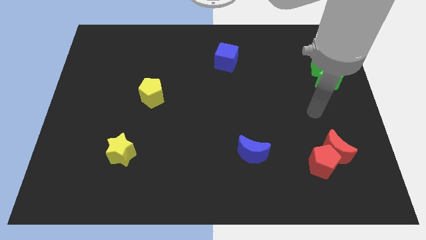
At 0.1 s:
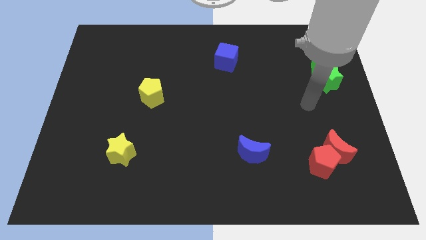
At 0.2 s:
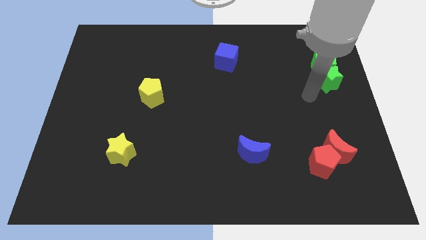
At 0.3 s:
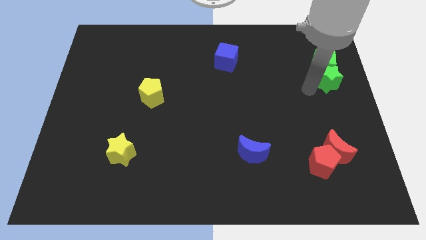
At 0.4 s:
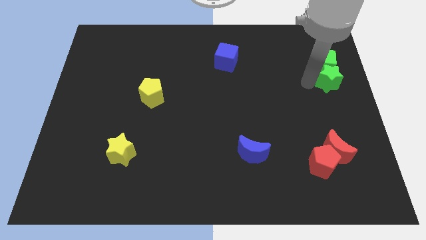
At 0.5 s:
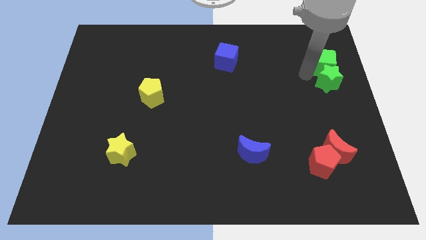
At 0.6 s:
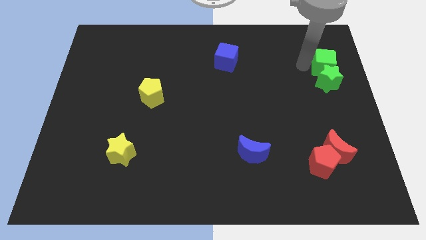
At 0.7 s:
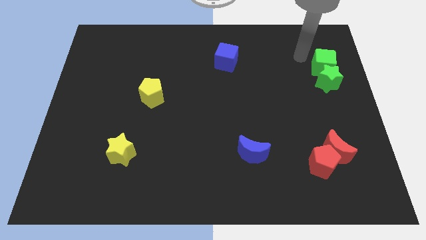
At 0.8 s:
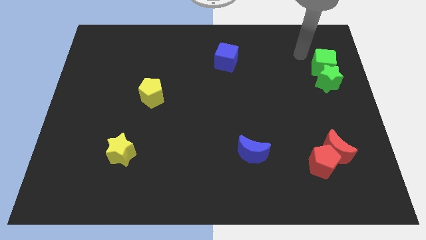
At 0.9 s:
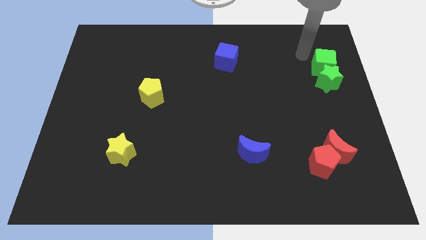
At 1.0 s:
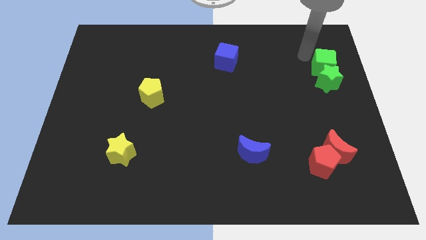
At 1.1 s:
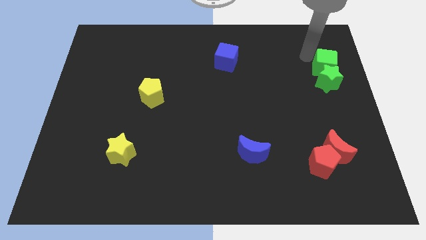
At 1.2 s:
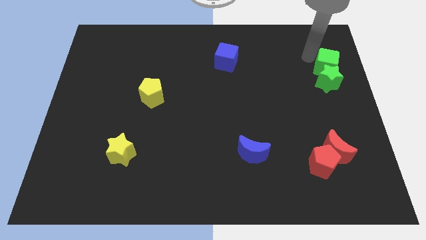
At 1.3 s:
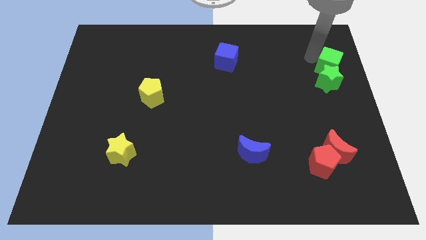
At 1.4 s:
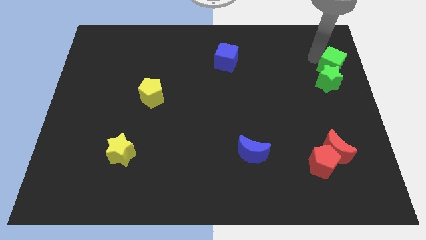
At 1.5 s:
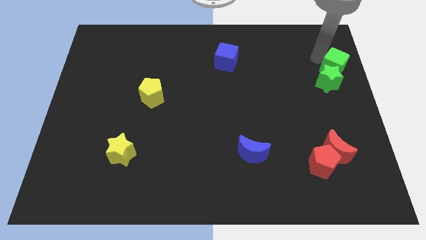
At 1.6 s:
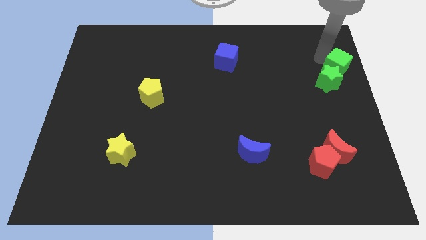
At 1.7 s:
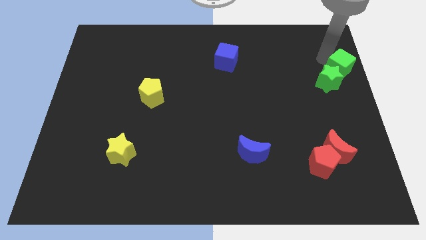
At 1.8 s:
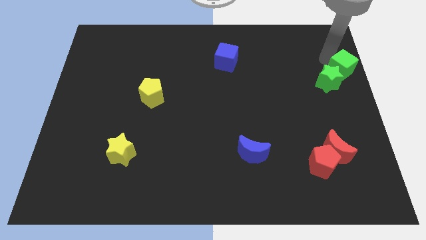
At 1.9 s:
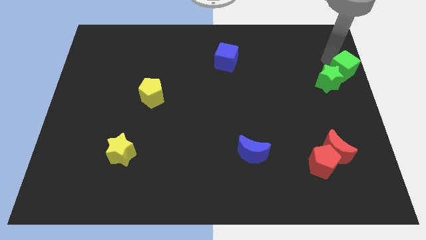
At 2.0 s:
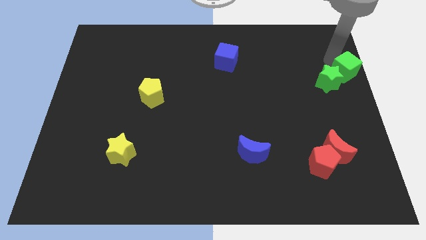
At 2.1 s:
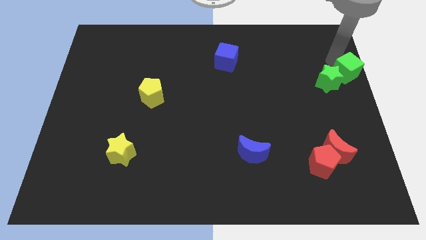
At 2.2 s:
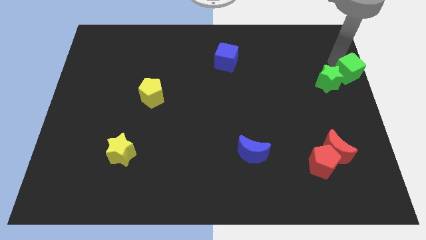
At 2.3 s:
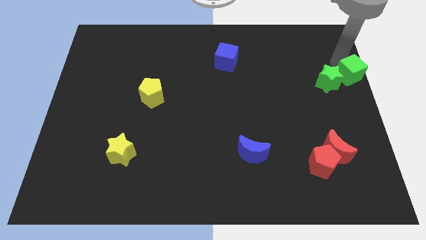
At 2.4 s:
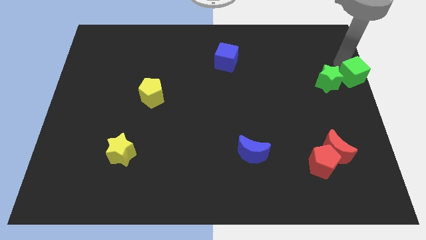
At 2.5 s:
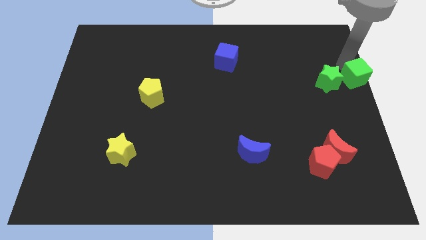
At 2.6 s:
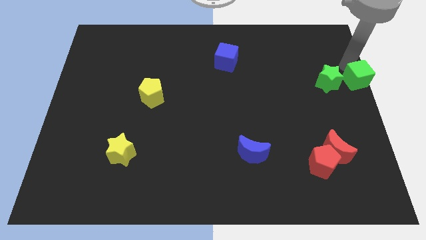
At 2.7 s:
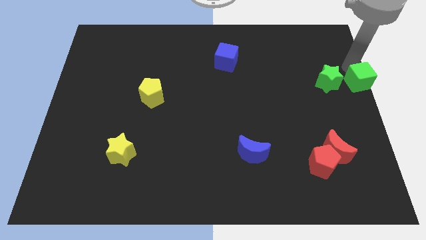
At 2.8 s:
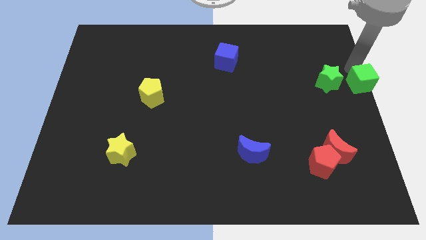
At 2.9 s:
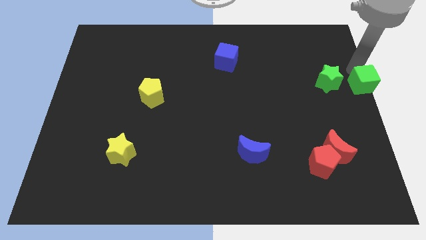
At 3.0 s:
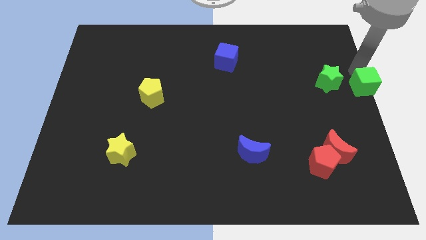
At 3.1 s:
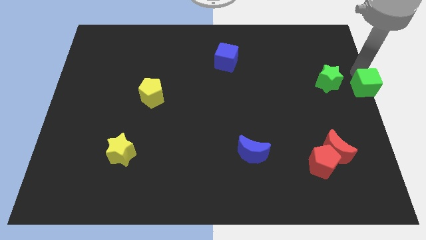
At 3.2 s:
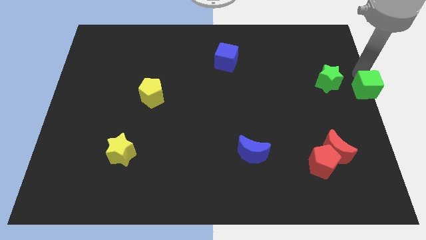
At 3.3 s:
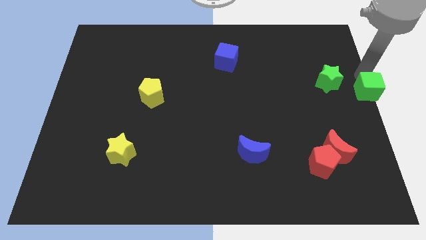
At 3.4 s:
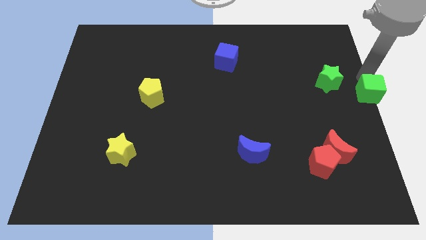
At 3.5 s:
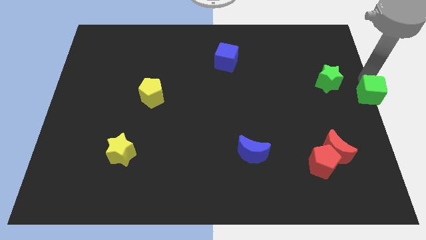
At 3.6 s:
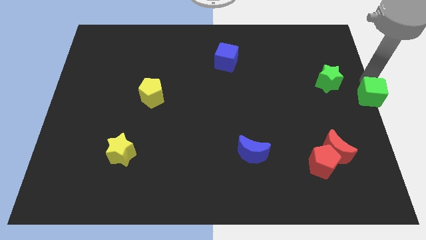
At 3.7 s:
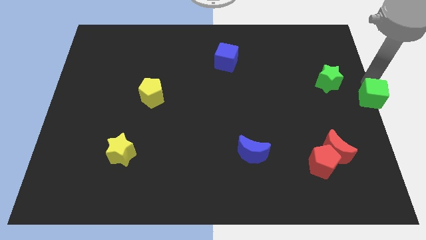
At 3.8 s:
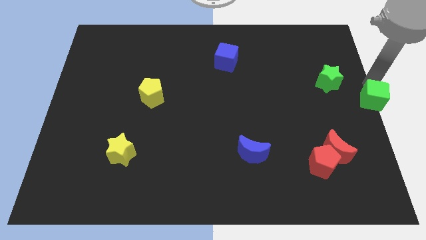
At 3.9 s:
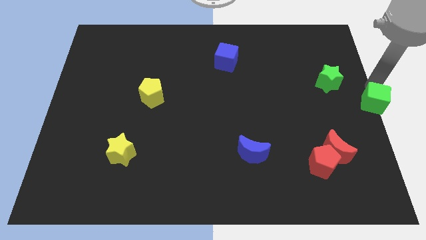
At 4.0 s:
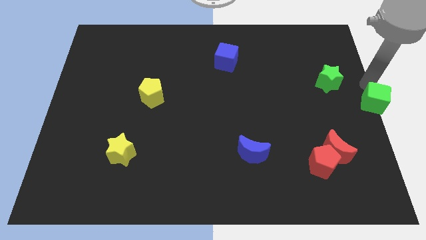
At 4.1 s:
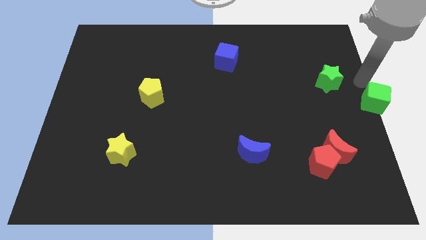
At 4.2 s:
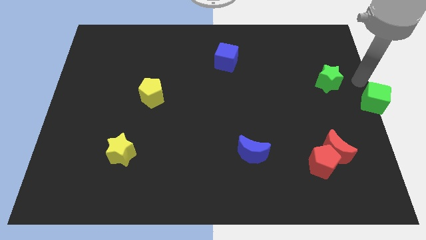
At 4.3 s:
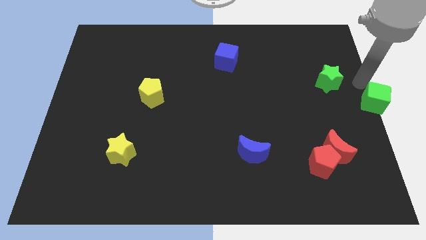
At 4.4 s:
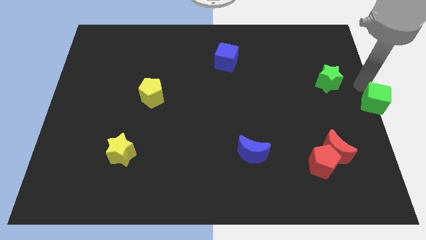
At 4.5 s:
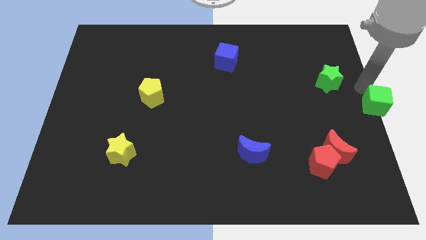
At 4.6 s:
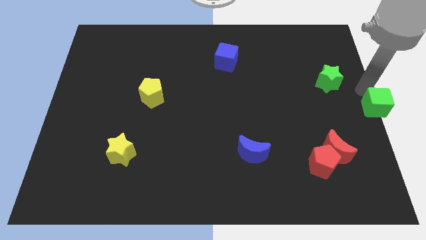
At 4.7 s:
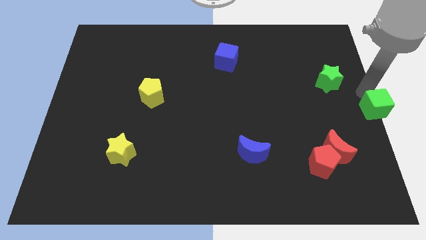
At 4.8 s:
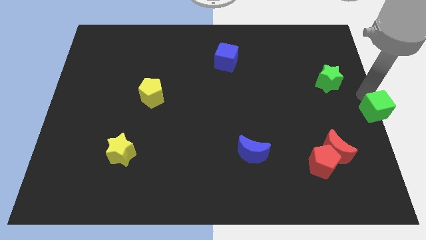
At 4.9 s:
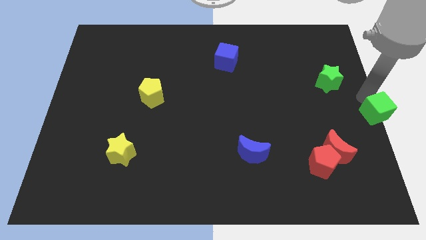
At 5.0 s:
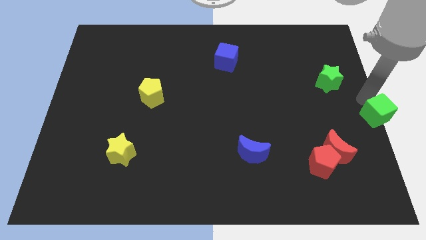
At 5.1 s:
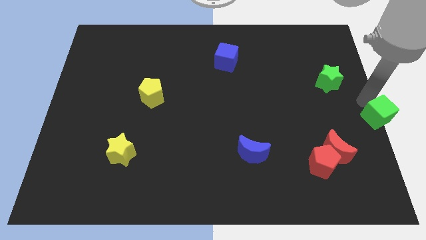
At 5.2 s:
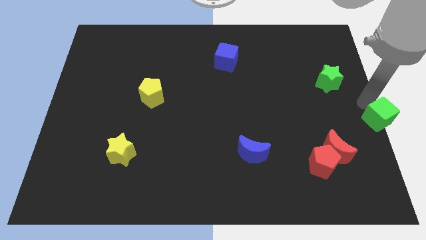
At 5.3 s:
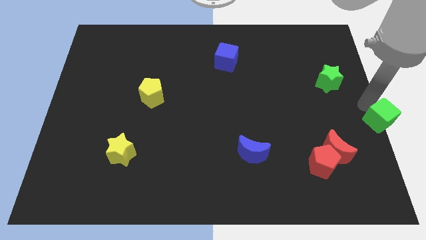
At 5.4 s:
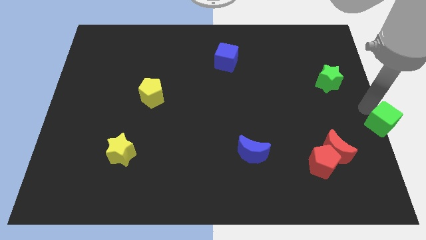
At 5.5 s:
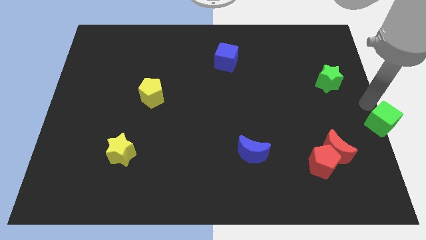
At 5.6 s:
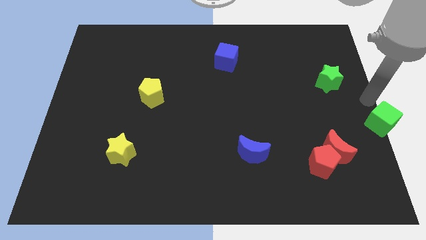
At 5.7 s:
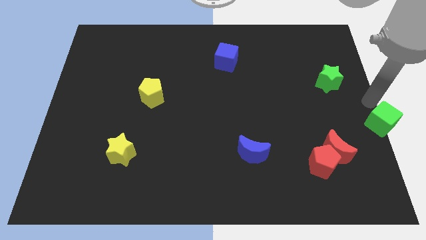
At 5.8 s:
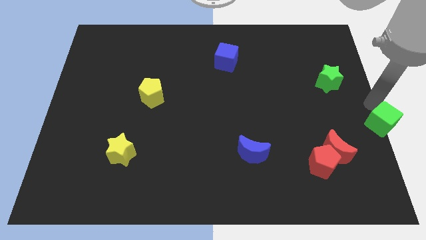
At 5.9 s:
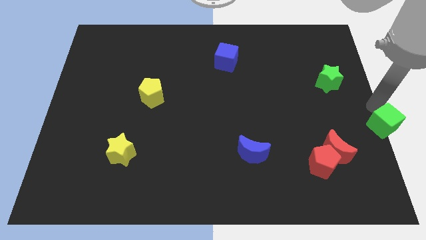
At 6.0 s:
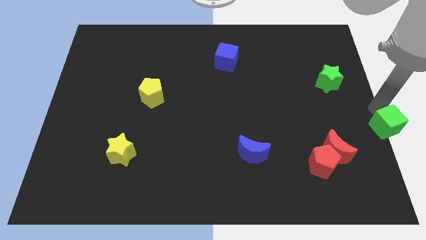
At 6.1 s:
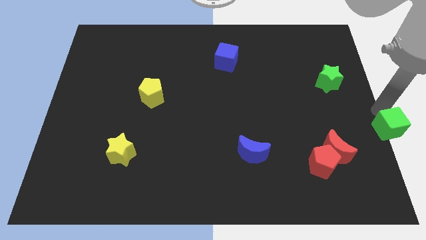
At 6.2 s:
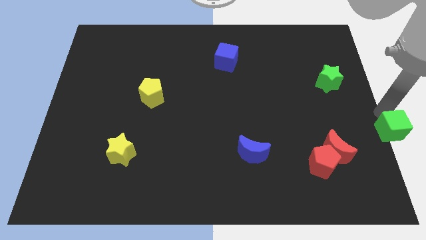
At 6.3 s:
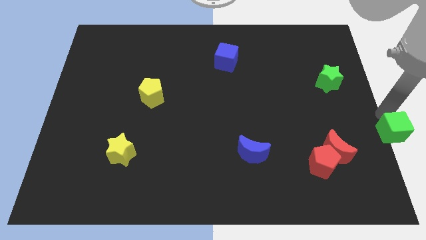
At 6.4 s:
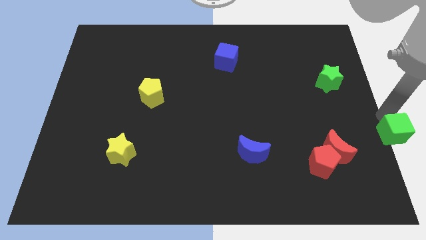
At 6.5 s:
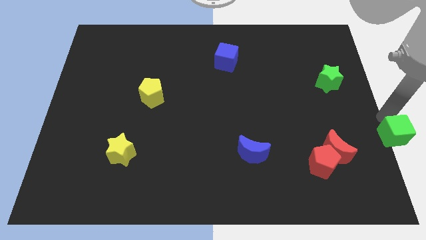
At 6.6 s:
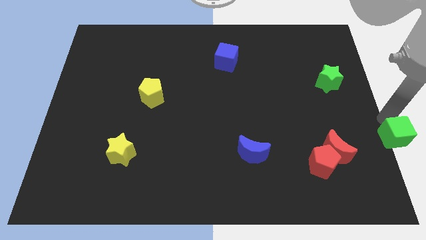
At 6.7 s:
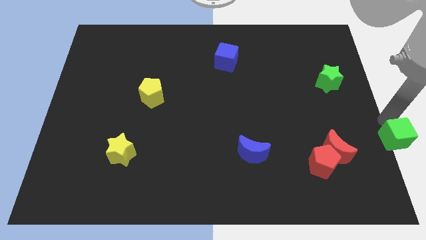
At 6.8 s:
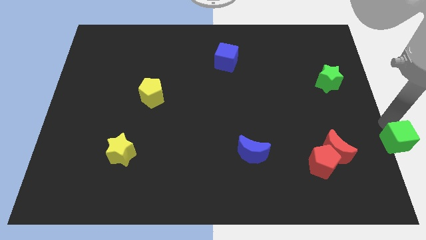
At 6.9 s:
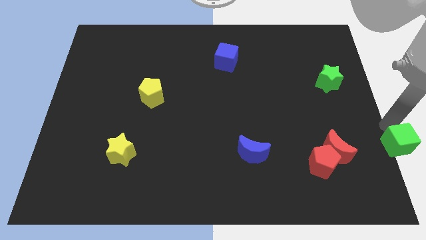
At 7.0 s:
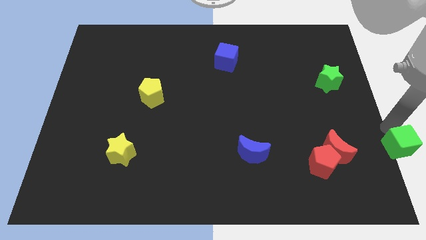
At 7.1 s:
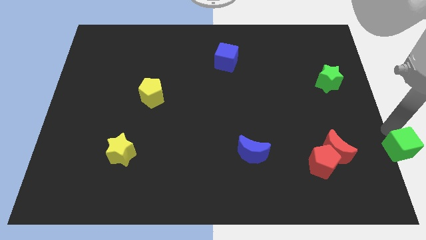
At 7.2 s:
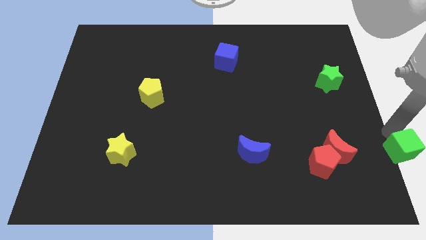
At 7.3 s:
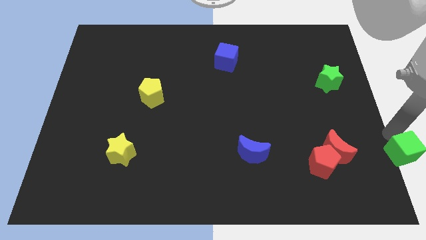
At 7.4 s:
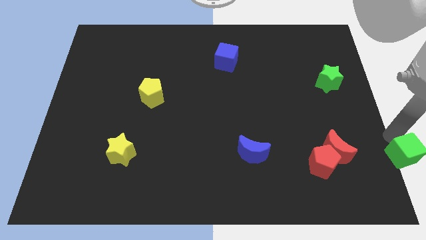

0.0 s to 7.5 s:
push the green cube to the bottom right of the board

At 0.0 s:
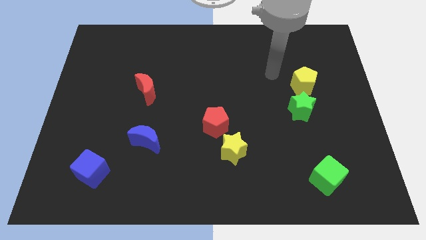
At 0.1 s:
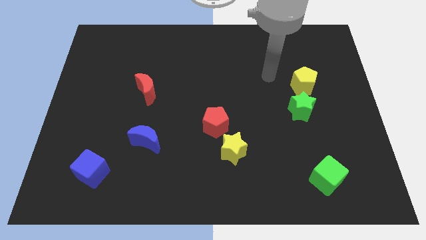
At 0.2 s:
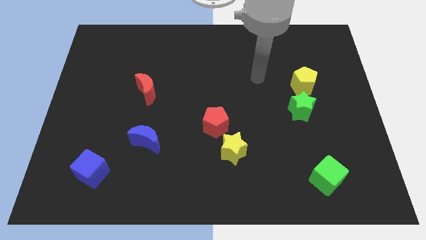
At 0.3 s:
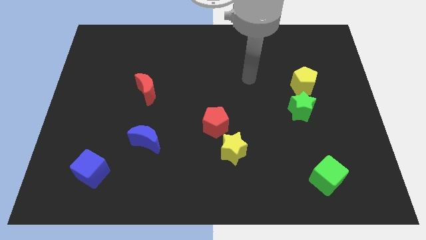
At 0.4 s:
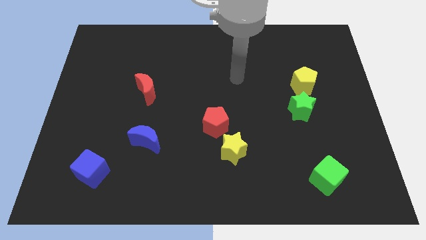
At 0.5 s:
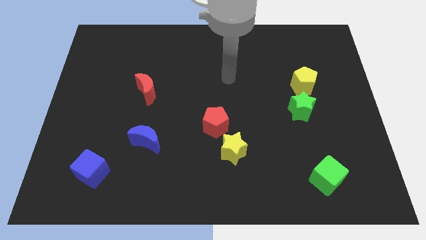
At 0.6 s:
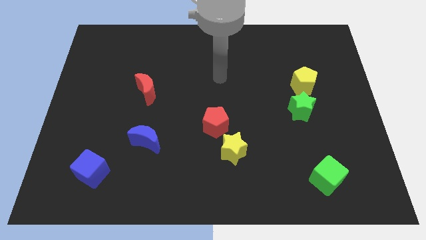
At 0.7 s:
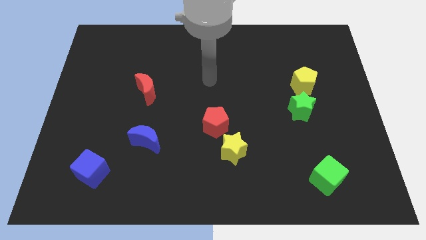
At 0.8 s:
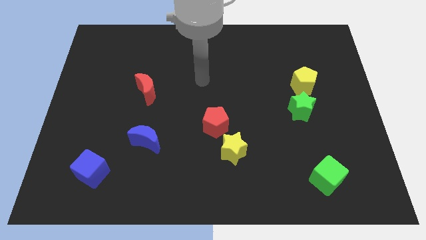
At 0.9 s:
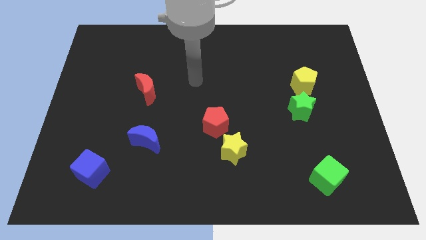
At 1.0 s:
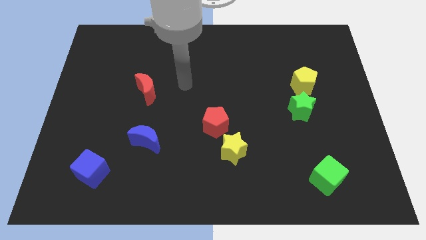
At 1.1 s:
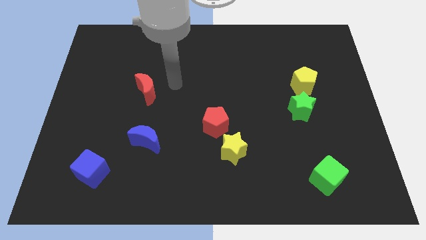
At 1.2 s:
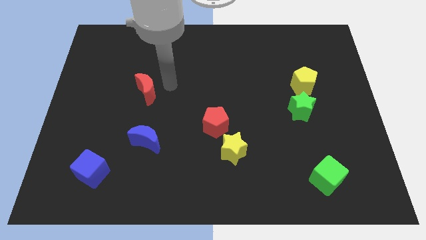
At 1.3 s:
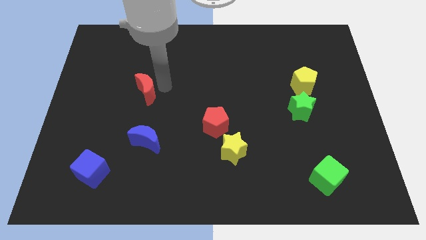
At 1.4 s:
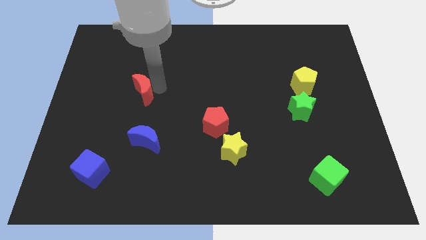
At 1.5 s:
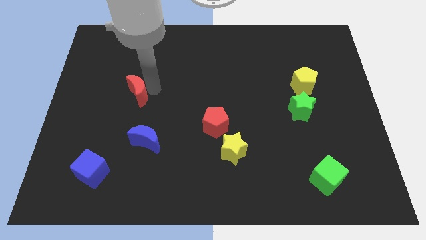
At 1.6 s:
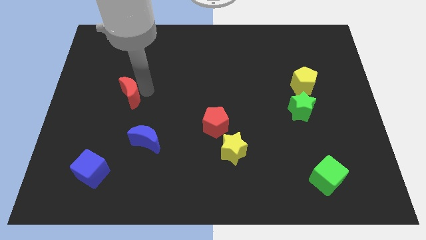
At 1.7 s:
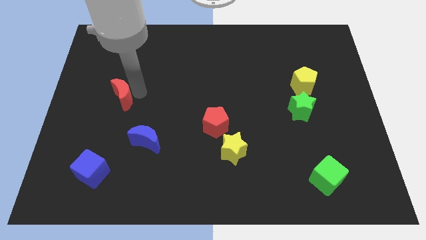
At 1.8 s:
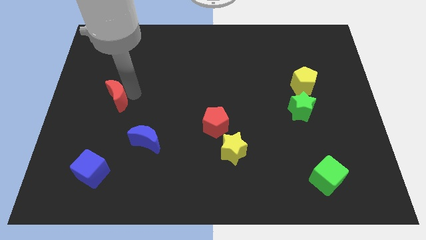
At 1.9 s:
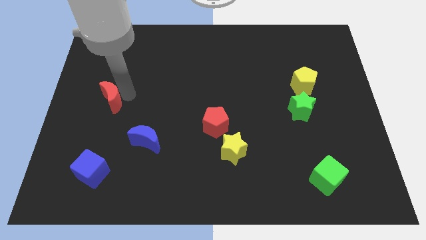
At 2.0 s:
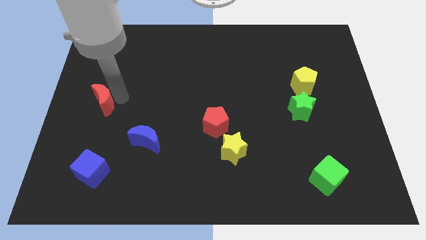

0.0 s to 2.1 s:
put the red moon to the left side
